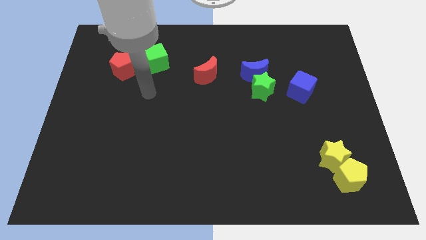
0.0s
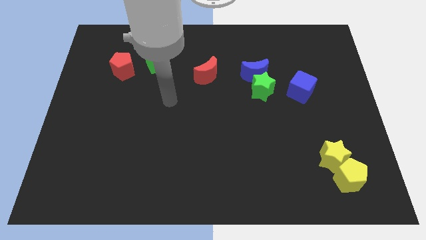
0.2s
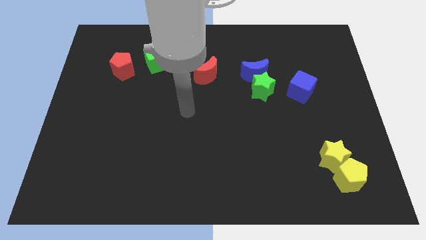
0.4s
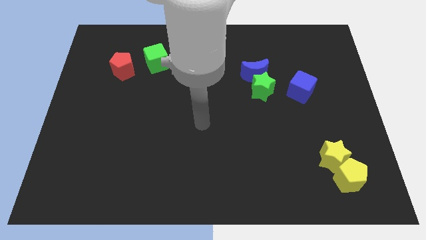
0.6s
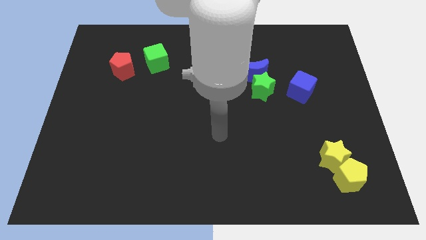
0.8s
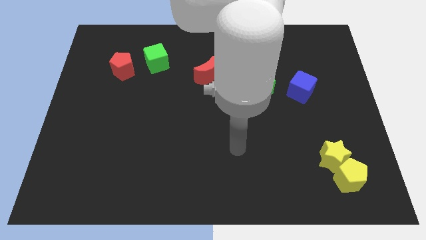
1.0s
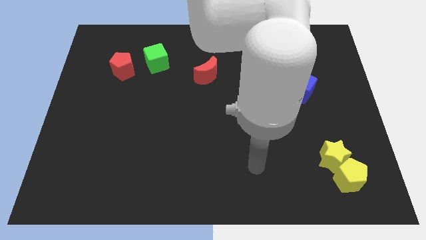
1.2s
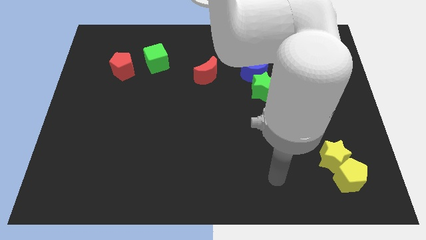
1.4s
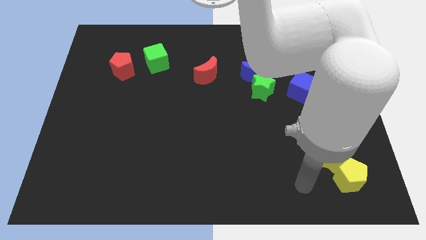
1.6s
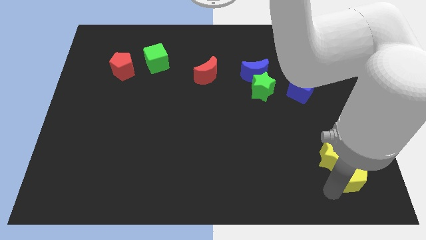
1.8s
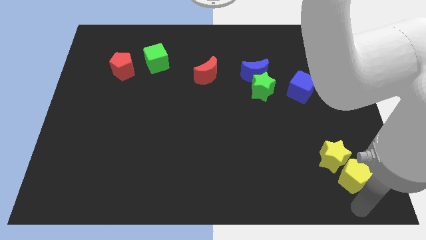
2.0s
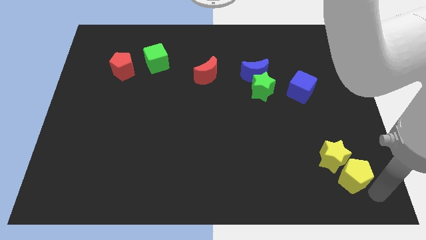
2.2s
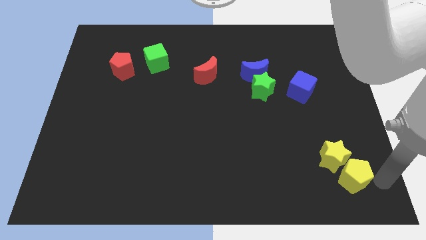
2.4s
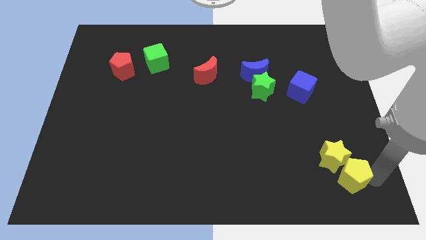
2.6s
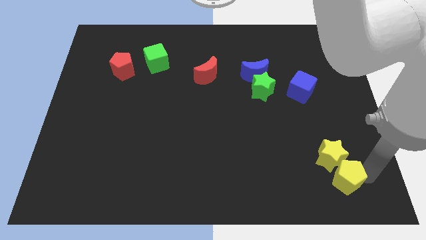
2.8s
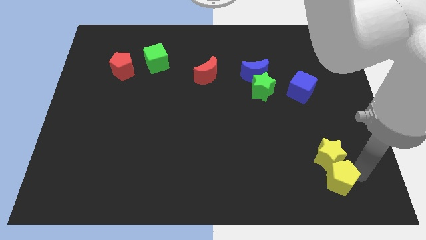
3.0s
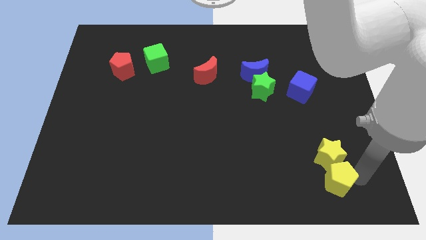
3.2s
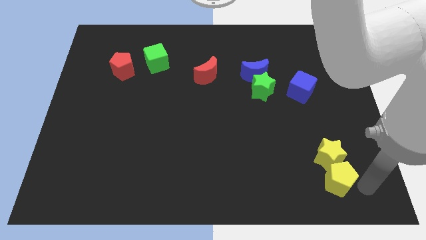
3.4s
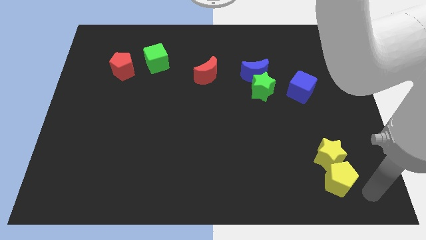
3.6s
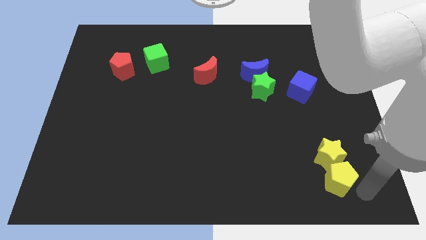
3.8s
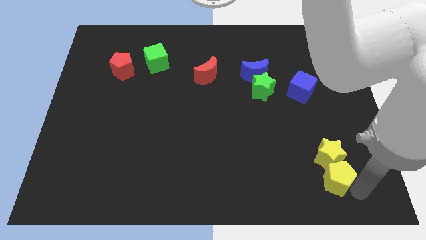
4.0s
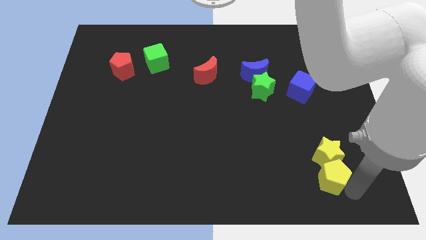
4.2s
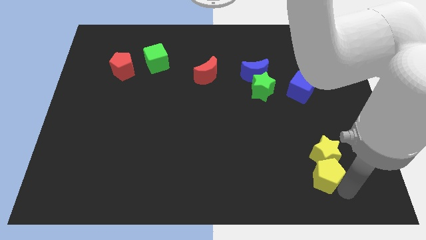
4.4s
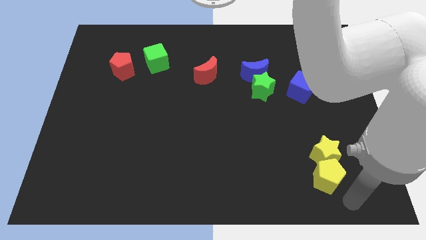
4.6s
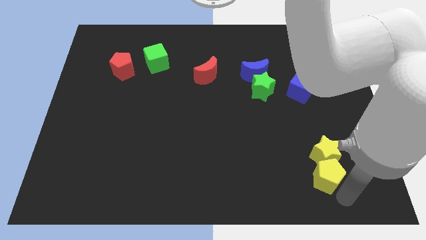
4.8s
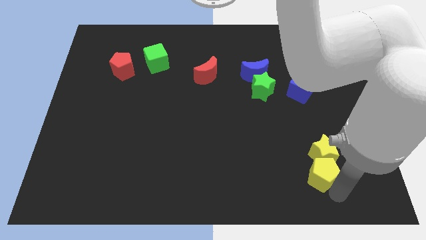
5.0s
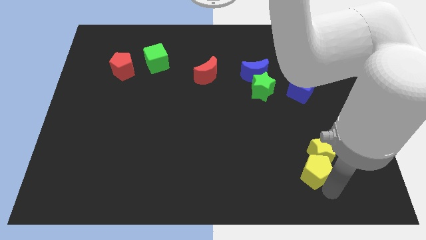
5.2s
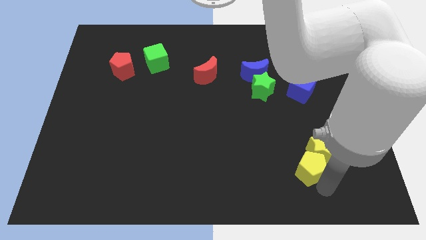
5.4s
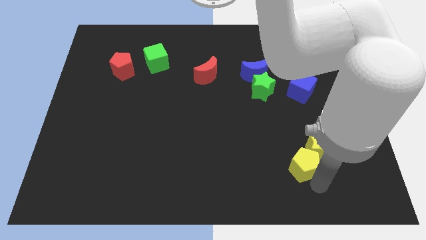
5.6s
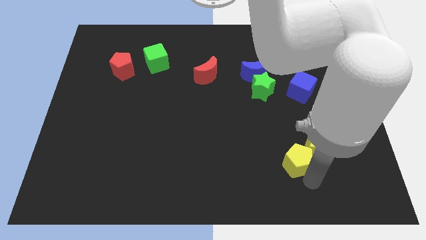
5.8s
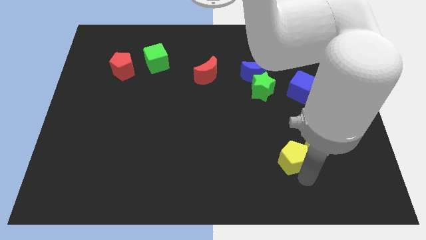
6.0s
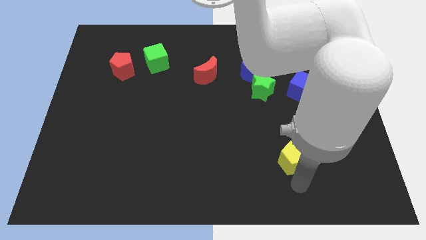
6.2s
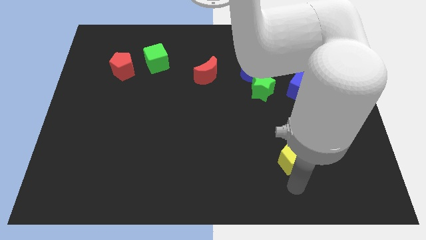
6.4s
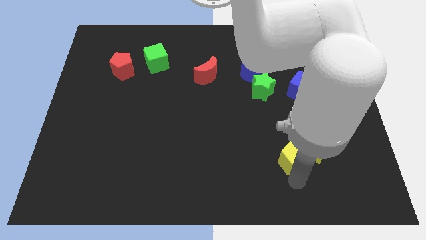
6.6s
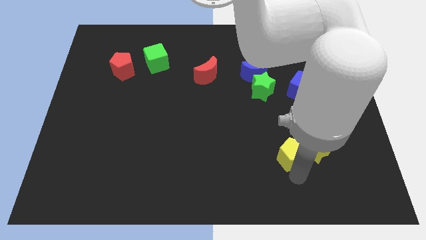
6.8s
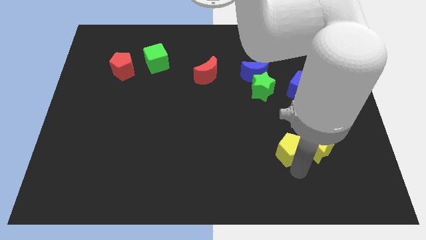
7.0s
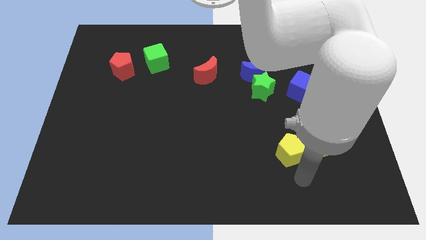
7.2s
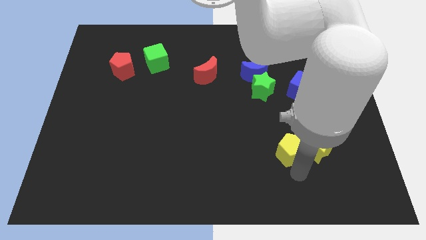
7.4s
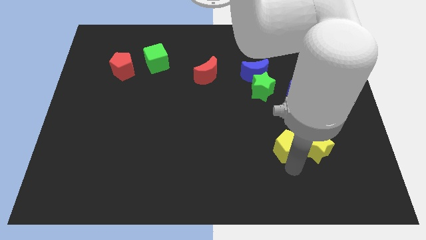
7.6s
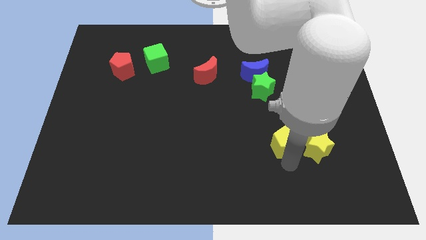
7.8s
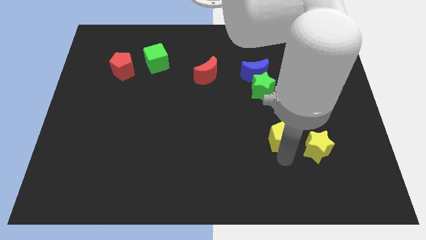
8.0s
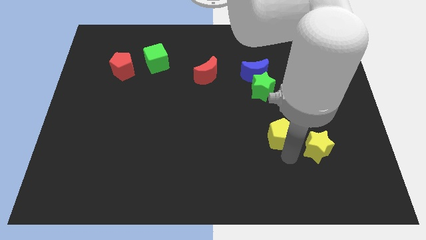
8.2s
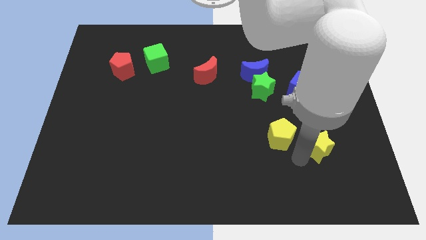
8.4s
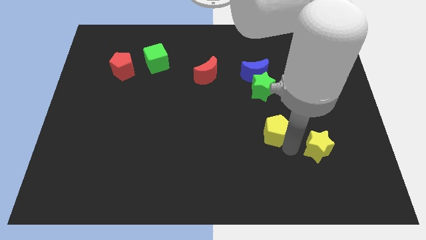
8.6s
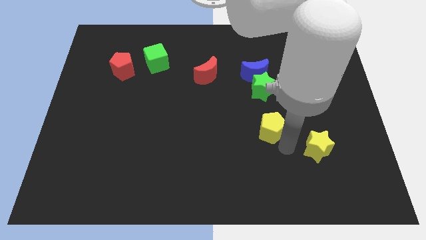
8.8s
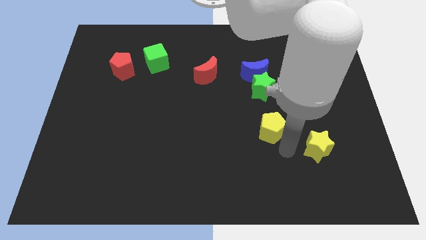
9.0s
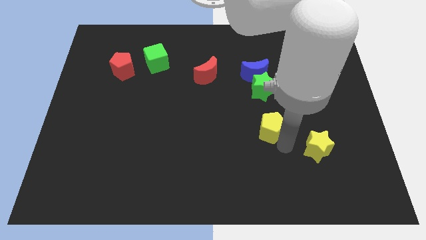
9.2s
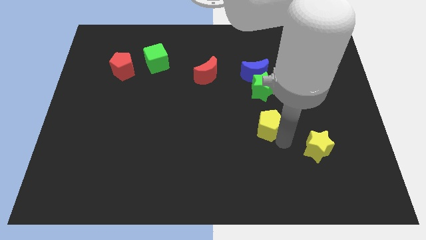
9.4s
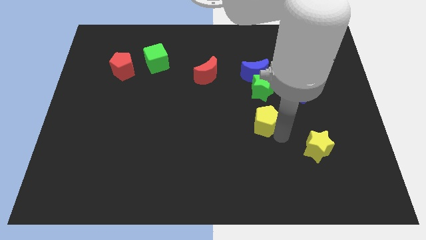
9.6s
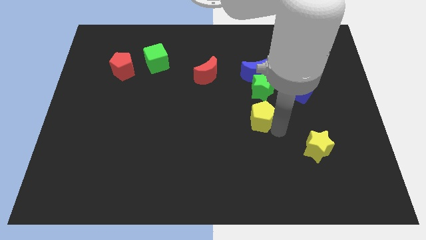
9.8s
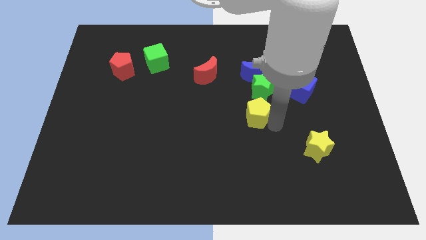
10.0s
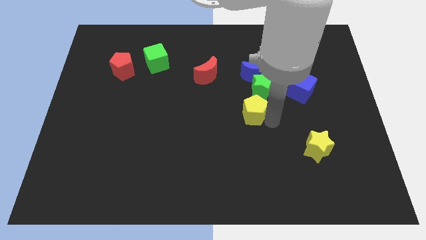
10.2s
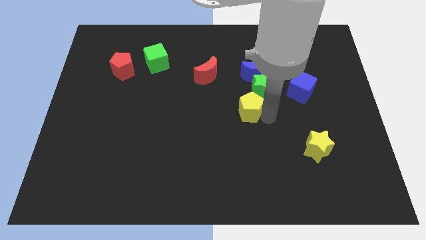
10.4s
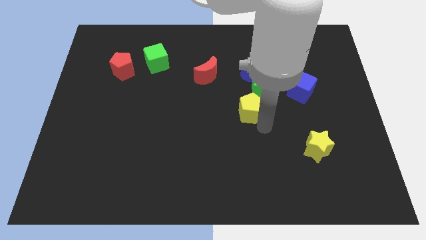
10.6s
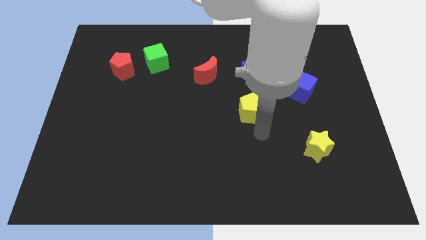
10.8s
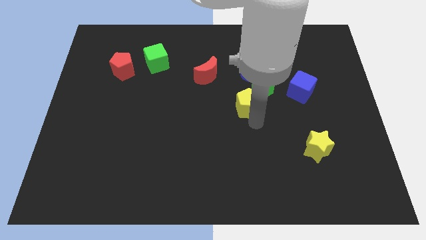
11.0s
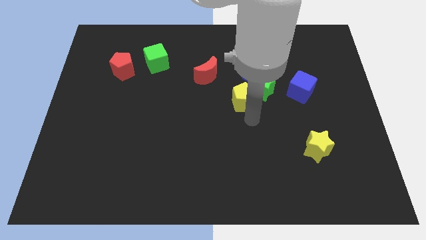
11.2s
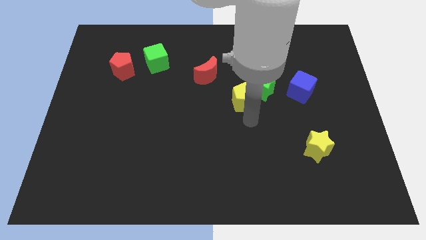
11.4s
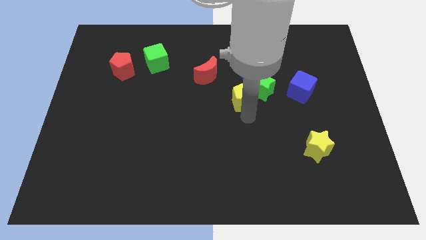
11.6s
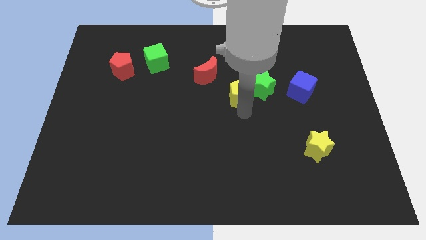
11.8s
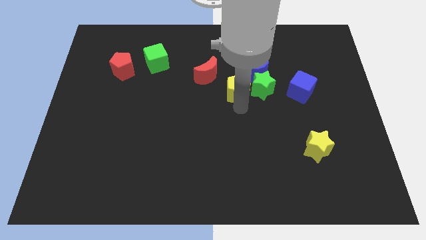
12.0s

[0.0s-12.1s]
slide the yellow pentagon diagonally up and to the left of the green star

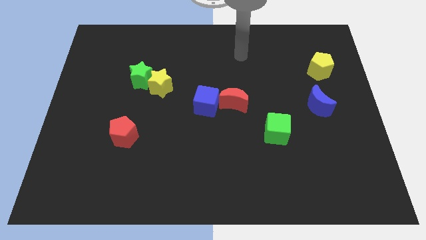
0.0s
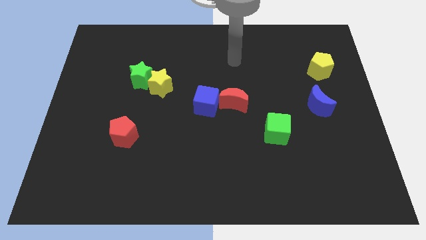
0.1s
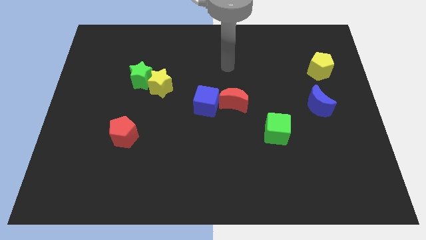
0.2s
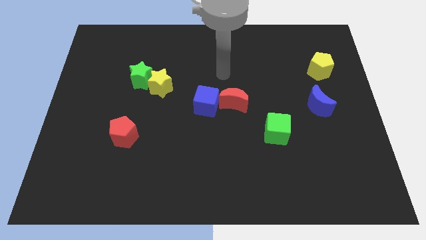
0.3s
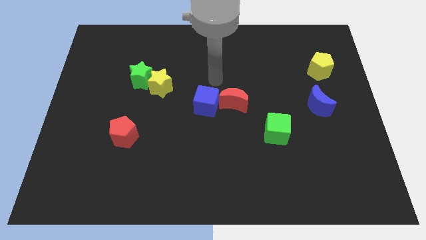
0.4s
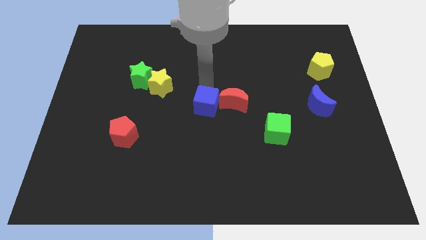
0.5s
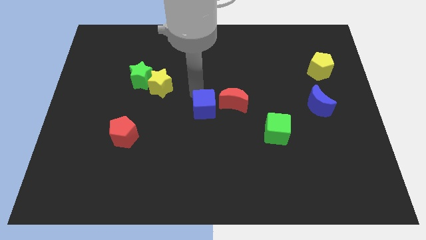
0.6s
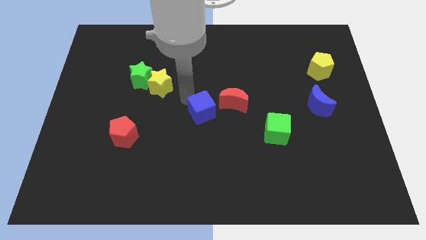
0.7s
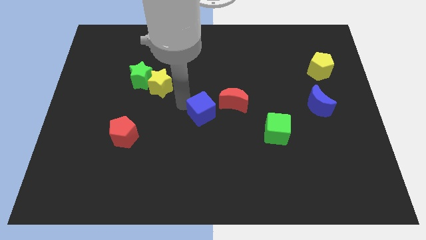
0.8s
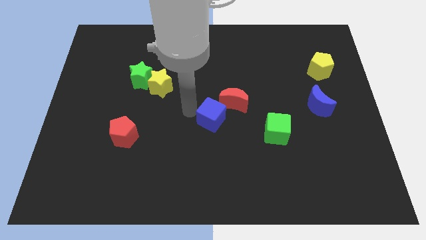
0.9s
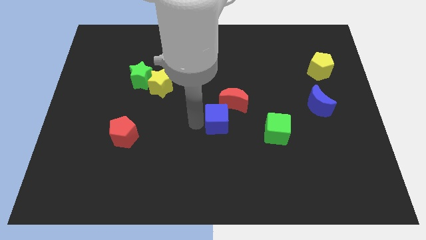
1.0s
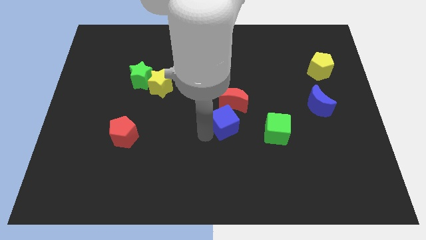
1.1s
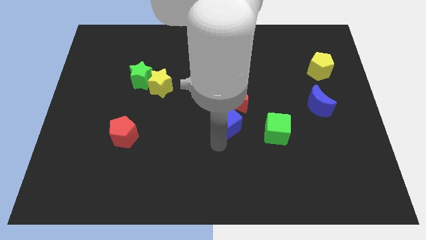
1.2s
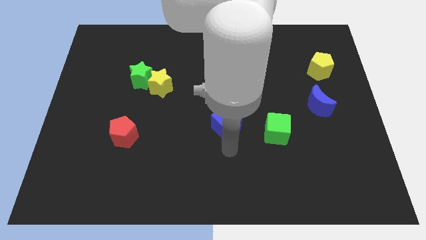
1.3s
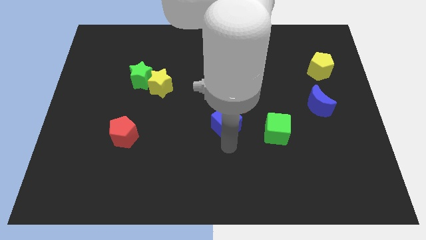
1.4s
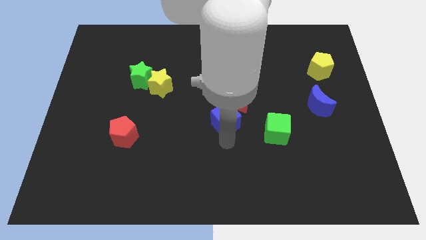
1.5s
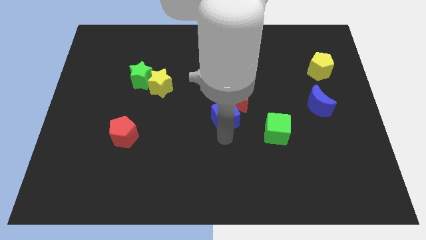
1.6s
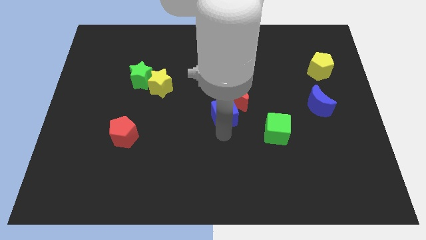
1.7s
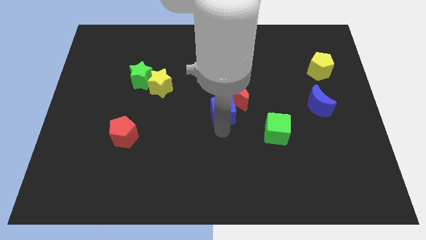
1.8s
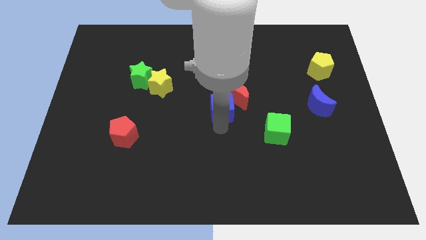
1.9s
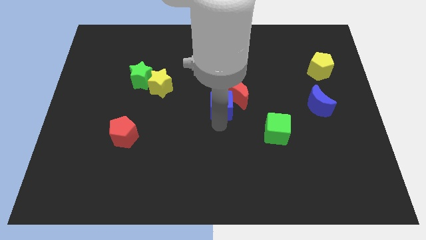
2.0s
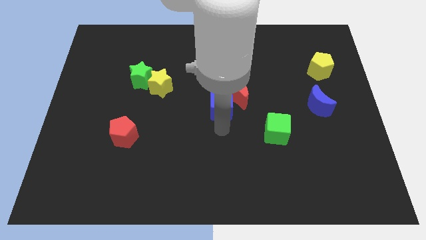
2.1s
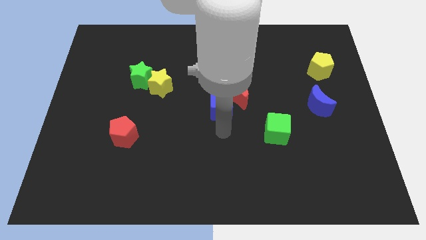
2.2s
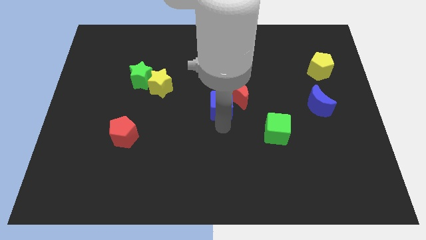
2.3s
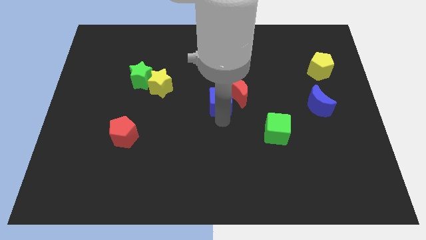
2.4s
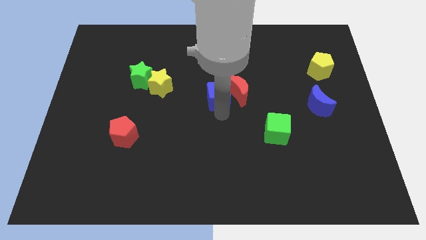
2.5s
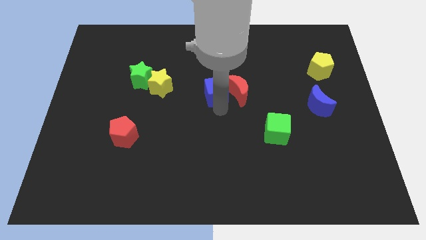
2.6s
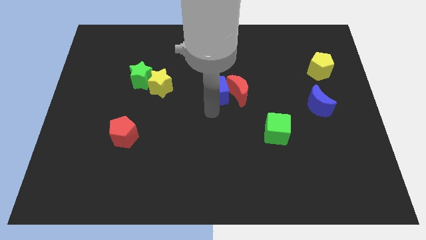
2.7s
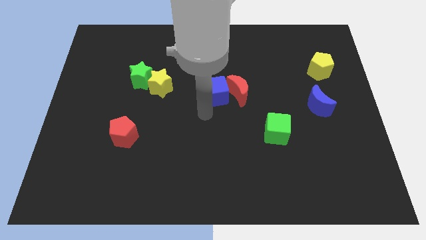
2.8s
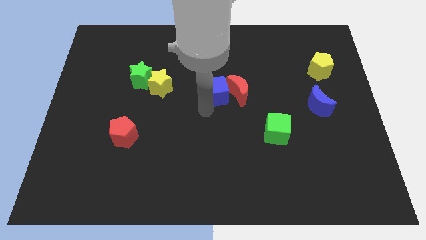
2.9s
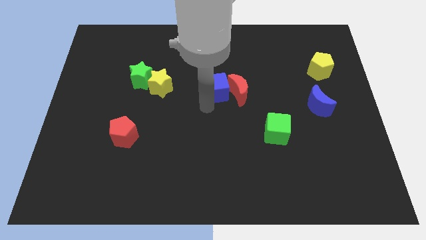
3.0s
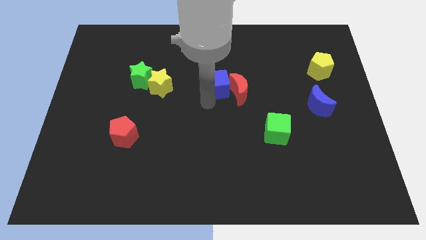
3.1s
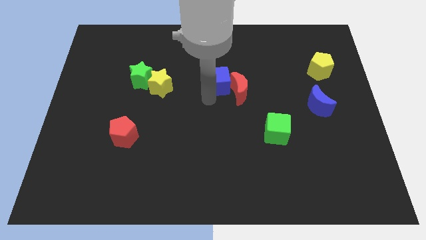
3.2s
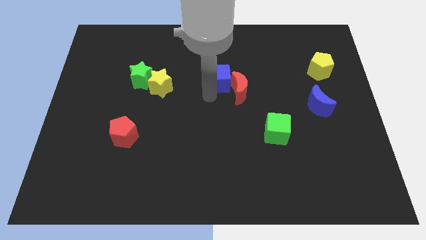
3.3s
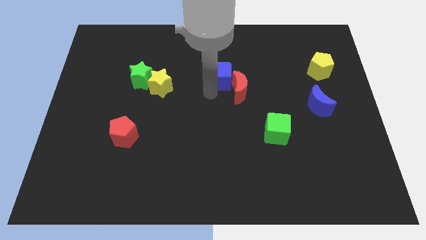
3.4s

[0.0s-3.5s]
push the blue cube to the top of the red moon
